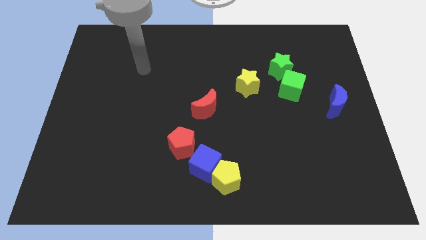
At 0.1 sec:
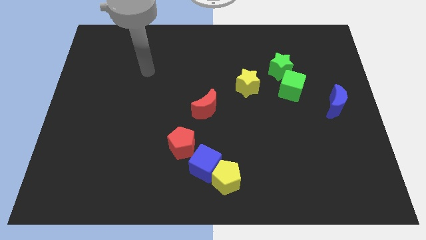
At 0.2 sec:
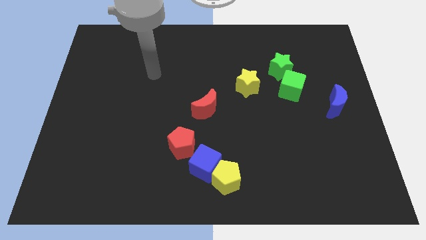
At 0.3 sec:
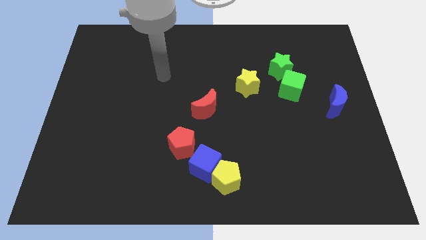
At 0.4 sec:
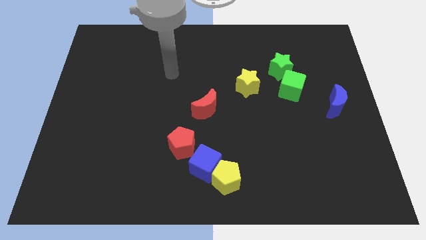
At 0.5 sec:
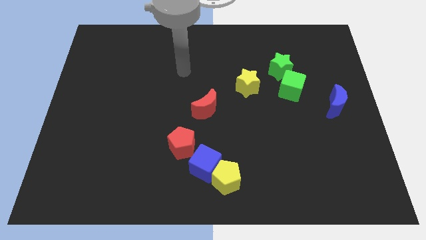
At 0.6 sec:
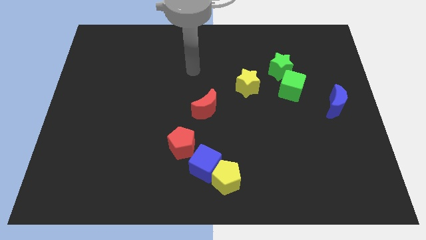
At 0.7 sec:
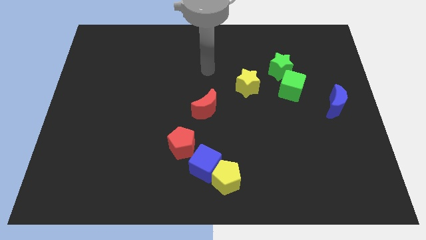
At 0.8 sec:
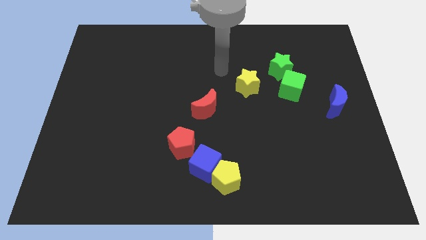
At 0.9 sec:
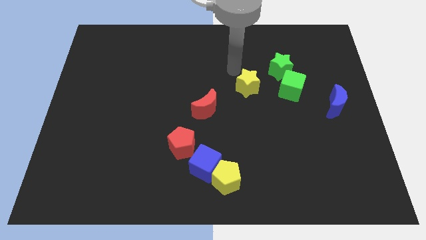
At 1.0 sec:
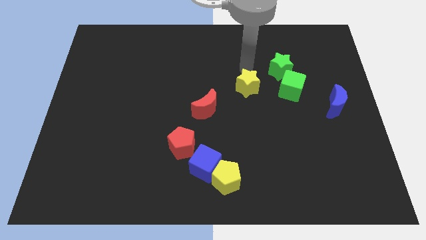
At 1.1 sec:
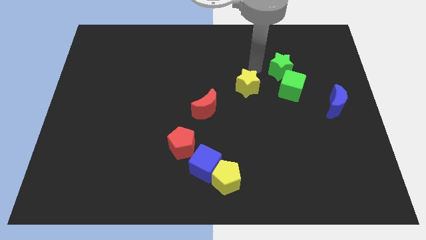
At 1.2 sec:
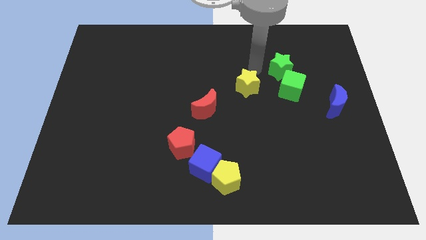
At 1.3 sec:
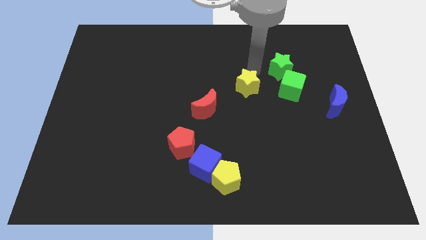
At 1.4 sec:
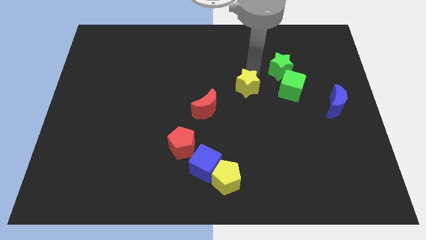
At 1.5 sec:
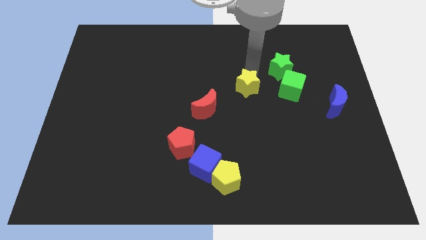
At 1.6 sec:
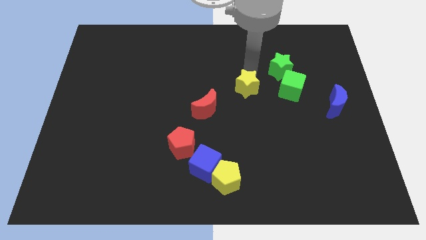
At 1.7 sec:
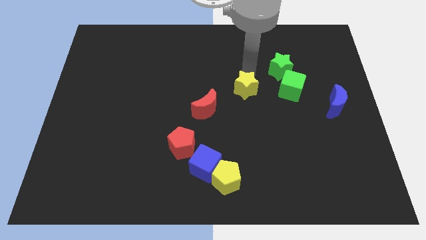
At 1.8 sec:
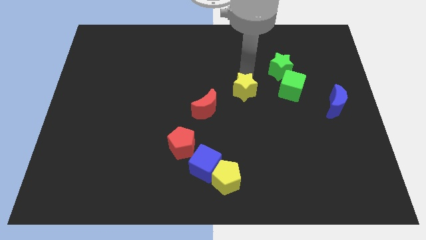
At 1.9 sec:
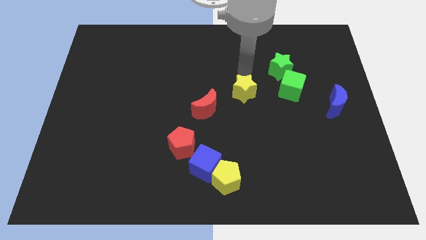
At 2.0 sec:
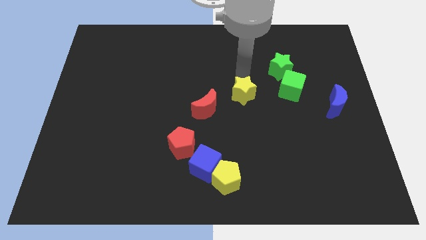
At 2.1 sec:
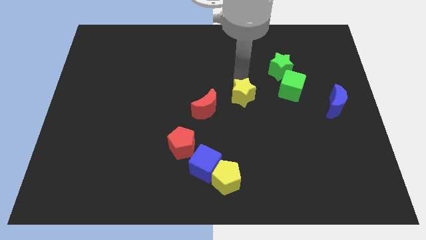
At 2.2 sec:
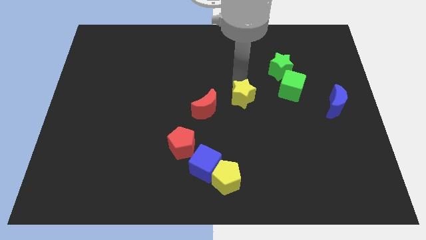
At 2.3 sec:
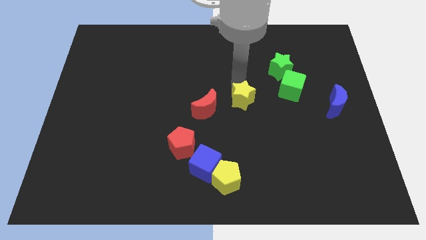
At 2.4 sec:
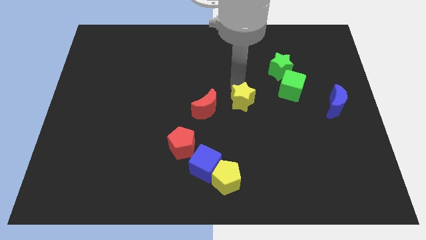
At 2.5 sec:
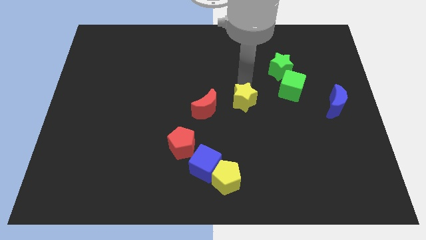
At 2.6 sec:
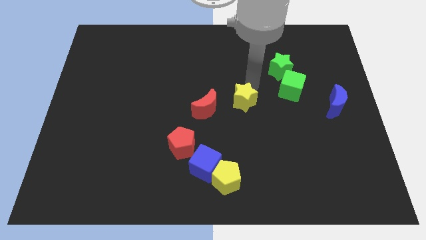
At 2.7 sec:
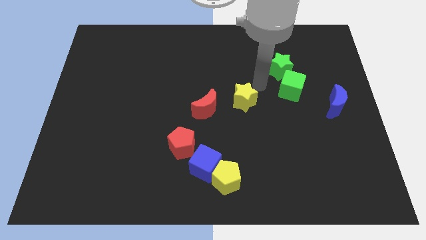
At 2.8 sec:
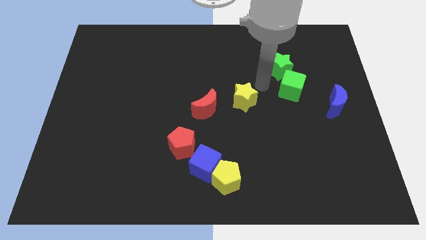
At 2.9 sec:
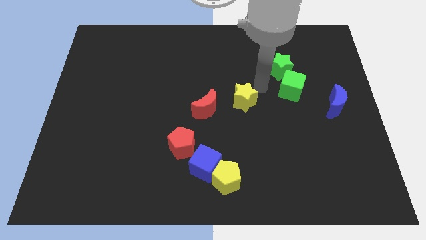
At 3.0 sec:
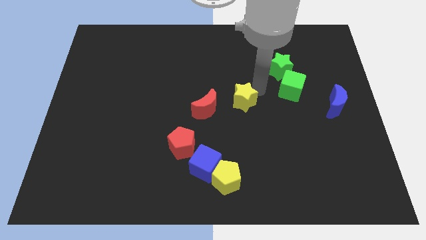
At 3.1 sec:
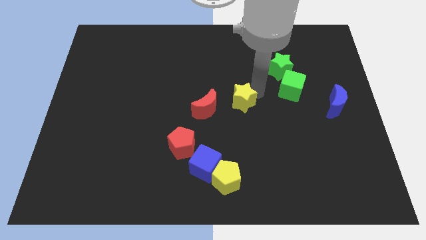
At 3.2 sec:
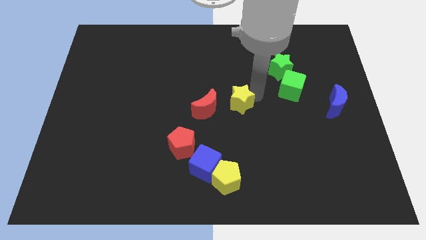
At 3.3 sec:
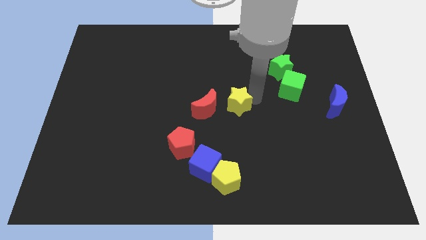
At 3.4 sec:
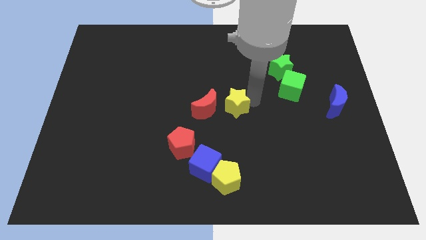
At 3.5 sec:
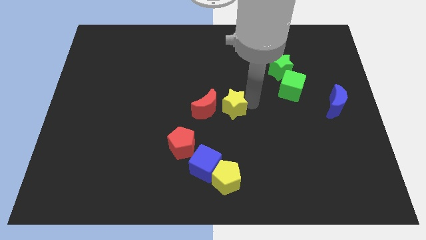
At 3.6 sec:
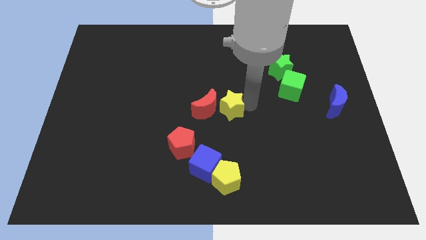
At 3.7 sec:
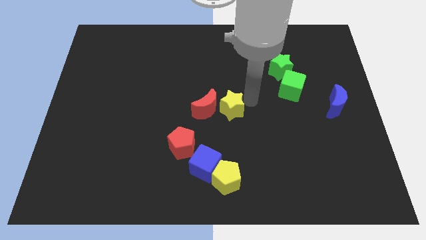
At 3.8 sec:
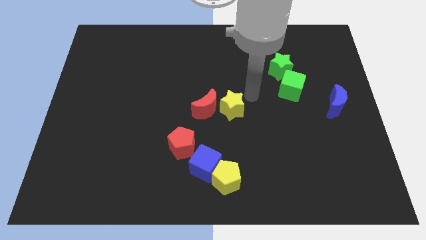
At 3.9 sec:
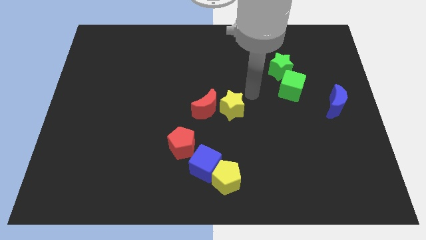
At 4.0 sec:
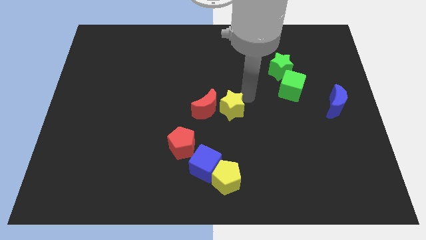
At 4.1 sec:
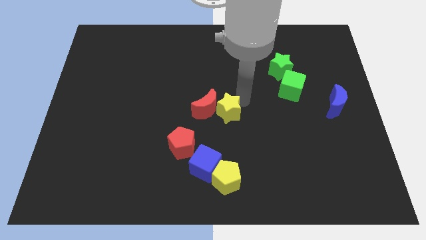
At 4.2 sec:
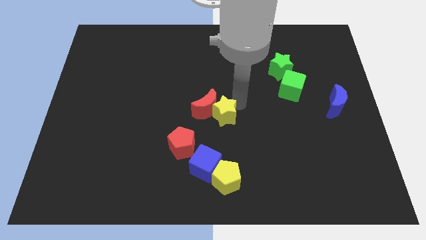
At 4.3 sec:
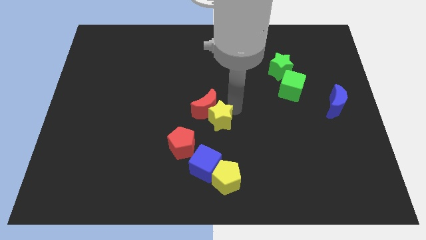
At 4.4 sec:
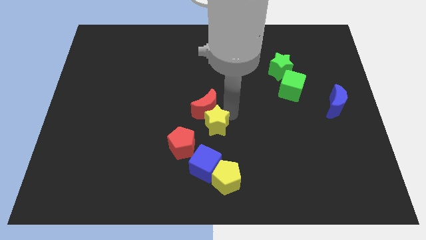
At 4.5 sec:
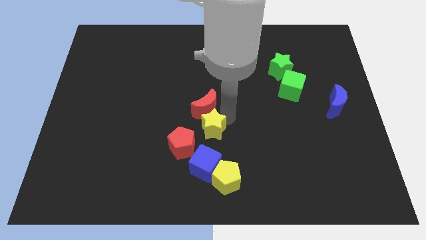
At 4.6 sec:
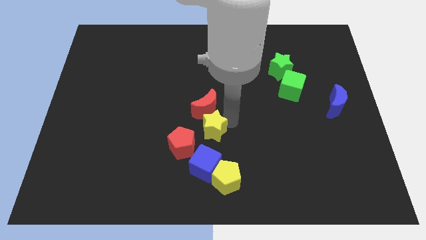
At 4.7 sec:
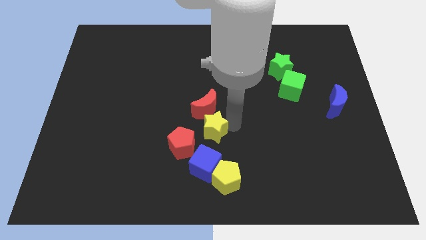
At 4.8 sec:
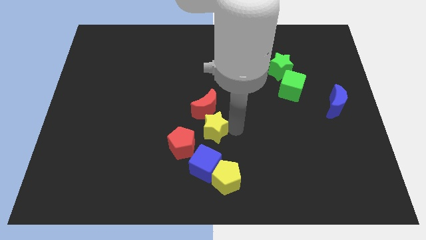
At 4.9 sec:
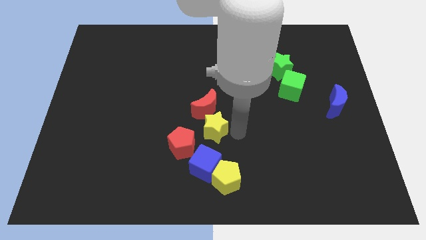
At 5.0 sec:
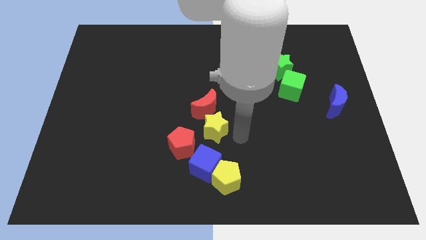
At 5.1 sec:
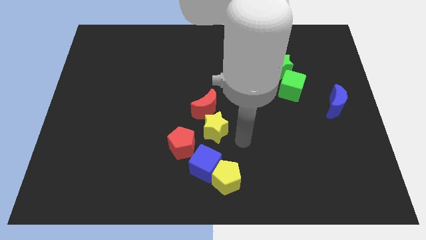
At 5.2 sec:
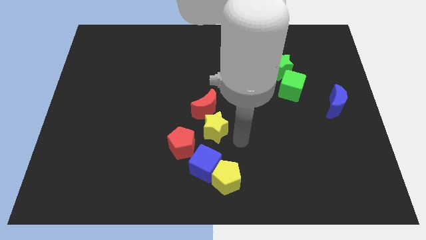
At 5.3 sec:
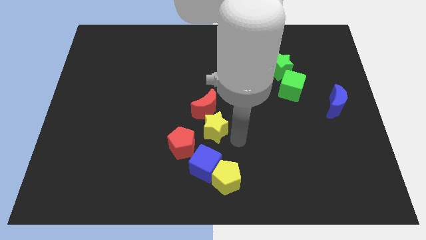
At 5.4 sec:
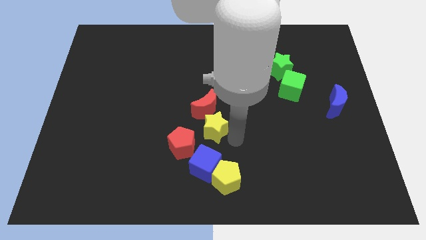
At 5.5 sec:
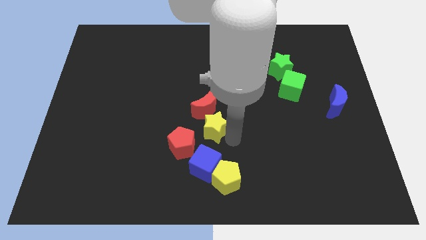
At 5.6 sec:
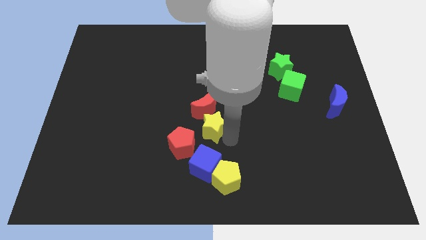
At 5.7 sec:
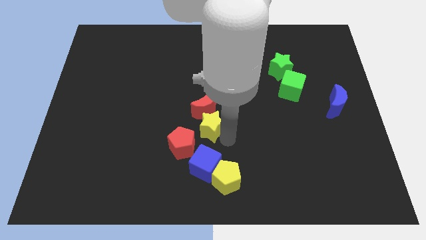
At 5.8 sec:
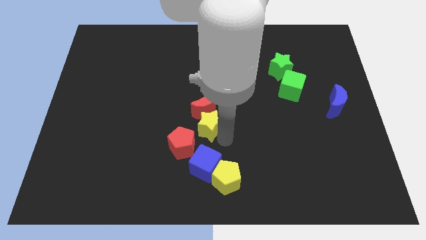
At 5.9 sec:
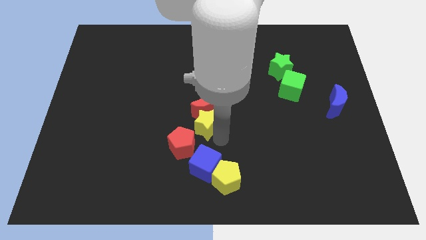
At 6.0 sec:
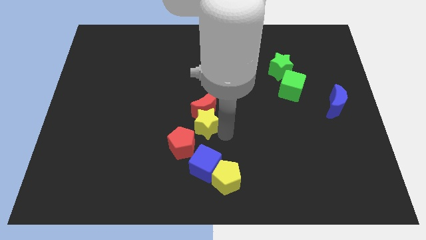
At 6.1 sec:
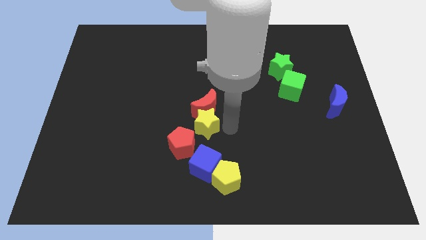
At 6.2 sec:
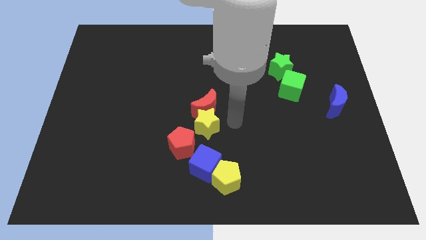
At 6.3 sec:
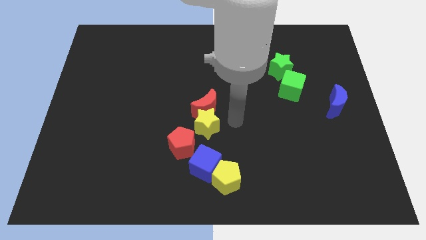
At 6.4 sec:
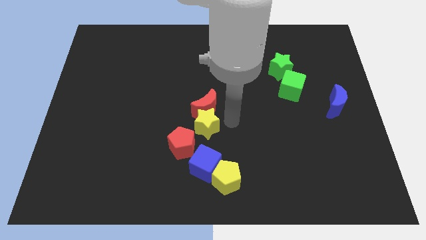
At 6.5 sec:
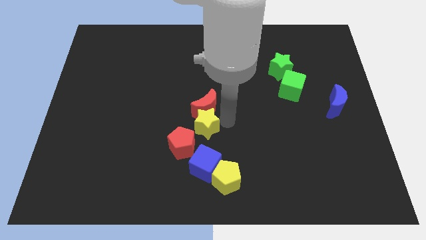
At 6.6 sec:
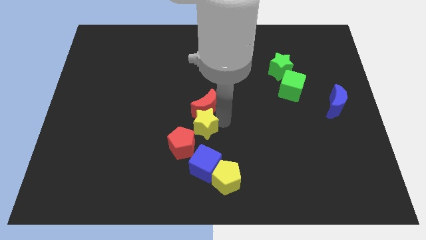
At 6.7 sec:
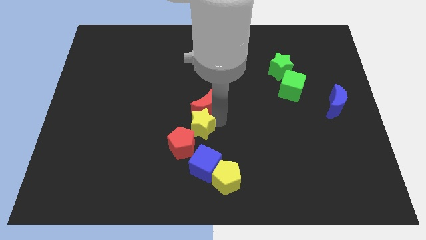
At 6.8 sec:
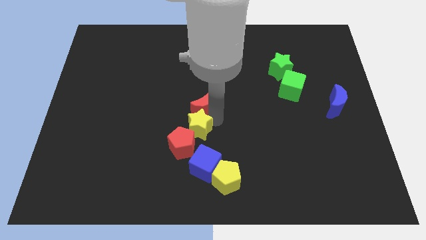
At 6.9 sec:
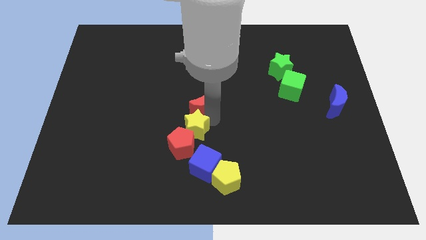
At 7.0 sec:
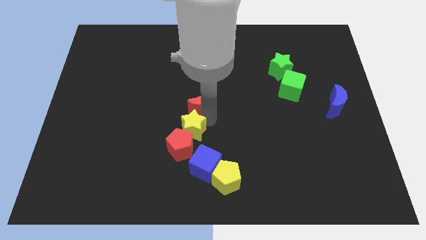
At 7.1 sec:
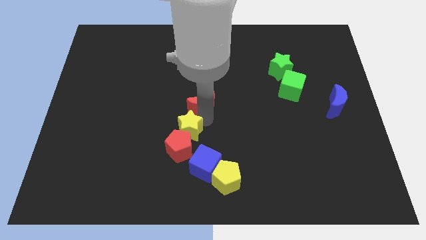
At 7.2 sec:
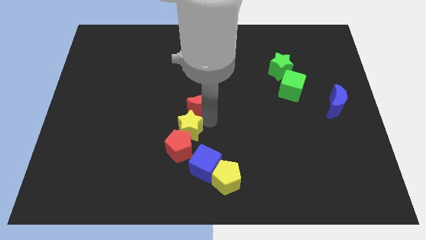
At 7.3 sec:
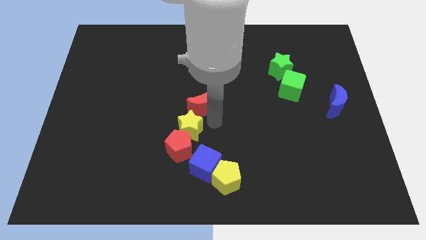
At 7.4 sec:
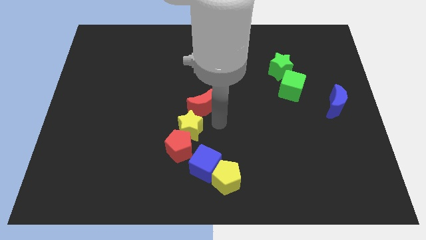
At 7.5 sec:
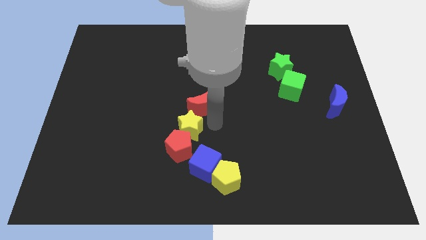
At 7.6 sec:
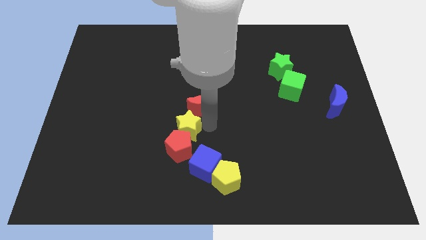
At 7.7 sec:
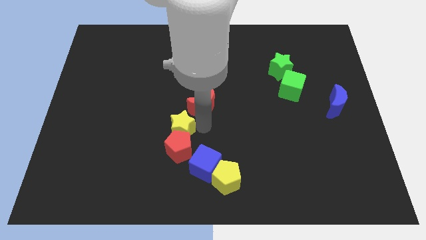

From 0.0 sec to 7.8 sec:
push the yellow star down and left
